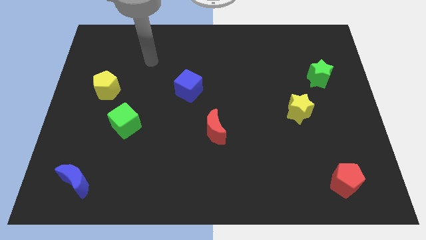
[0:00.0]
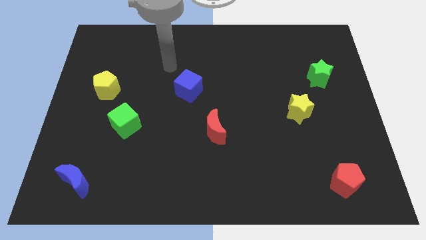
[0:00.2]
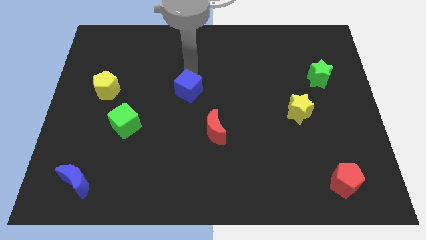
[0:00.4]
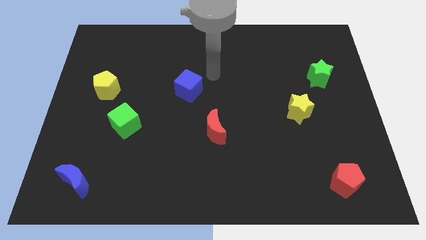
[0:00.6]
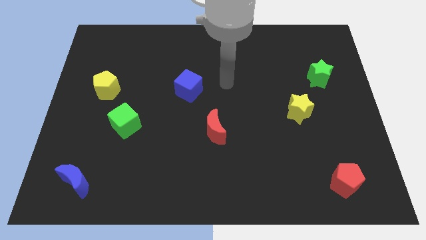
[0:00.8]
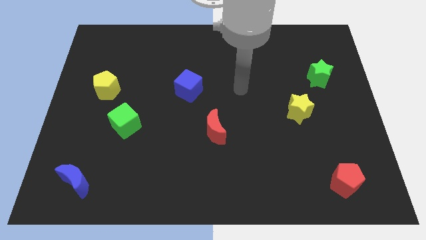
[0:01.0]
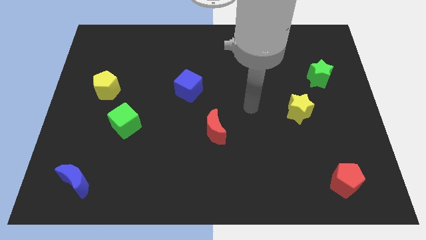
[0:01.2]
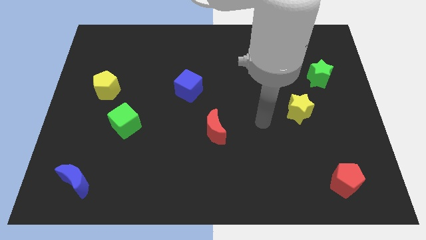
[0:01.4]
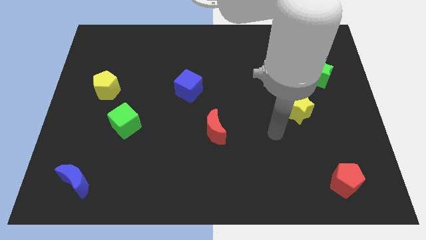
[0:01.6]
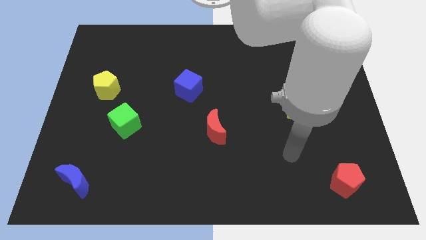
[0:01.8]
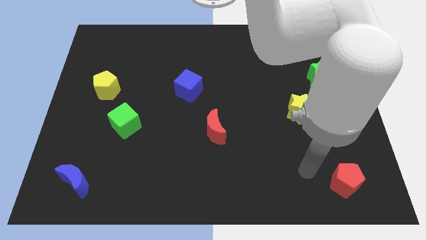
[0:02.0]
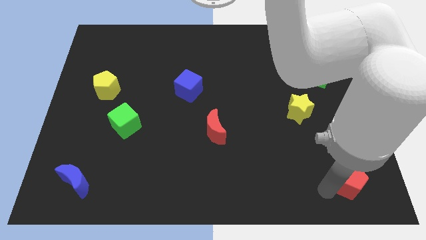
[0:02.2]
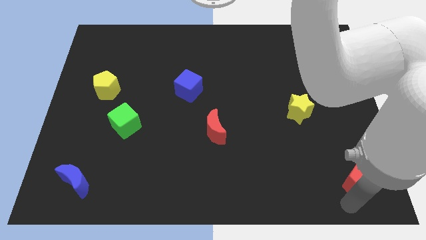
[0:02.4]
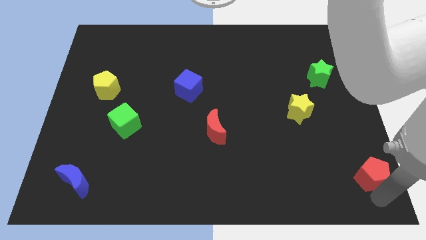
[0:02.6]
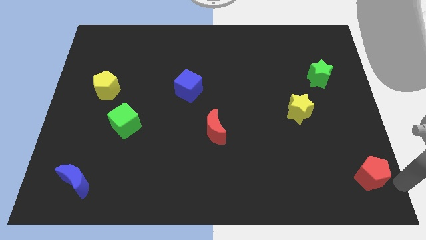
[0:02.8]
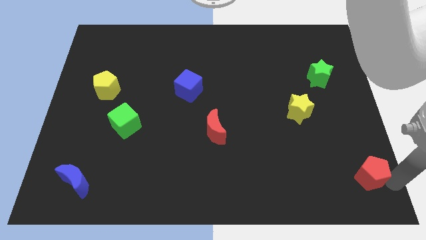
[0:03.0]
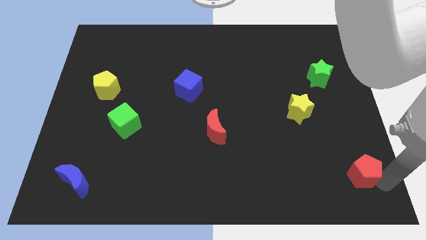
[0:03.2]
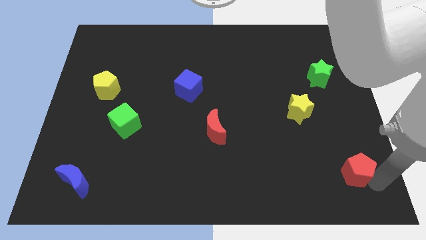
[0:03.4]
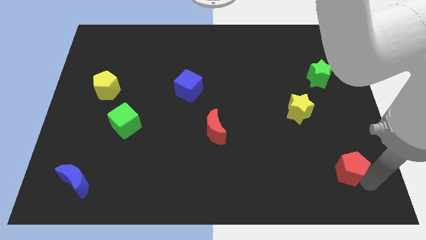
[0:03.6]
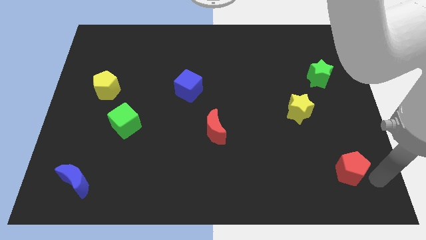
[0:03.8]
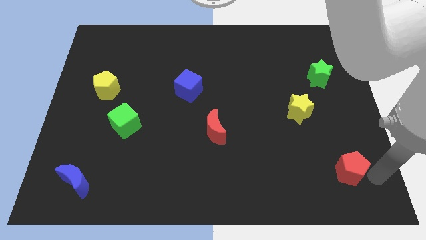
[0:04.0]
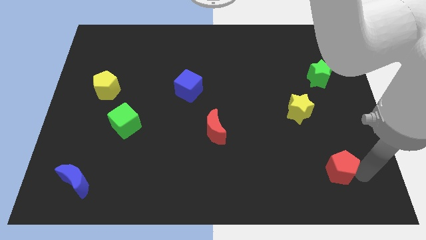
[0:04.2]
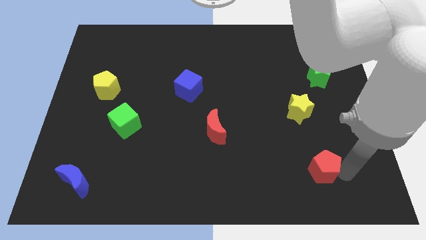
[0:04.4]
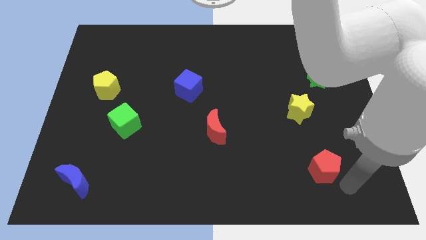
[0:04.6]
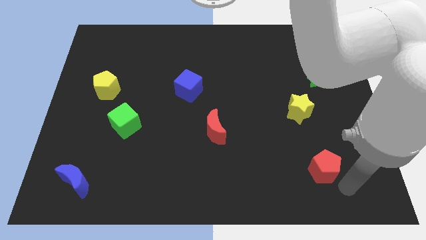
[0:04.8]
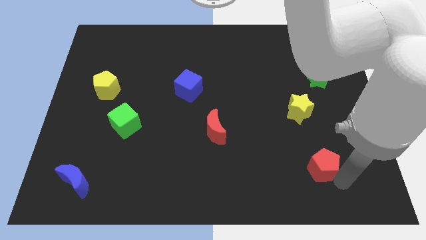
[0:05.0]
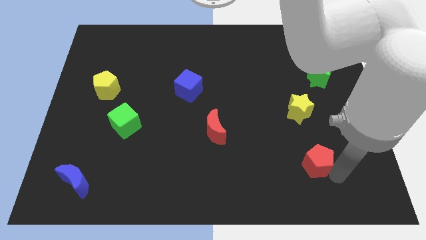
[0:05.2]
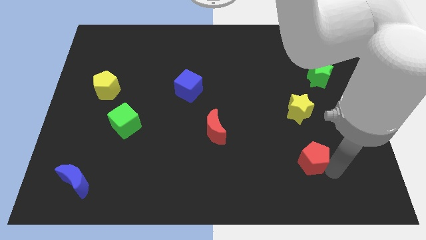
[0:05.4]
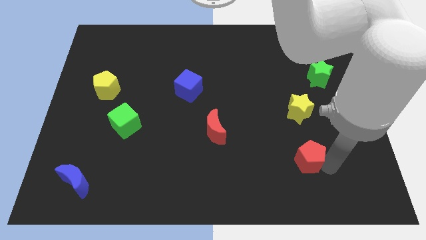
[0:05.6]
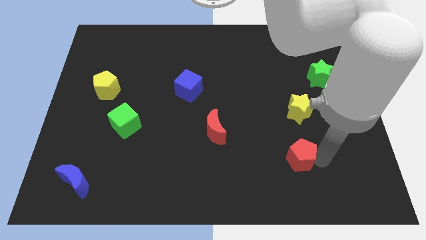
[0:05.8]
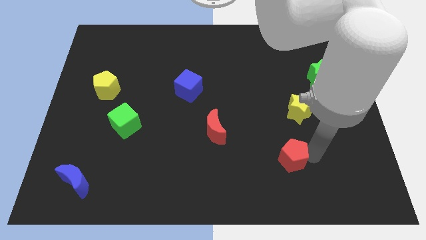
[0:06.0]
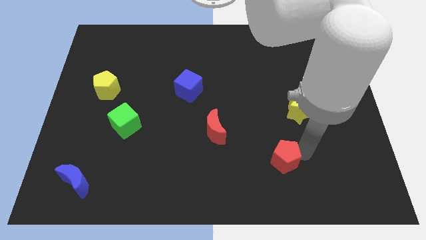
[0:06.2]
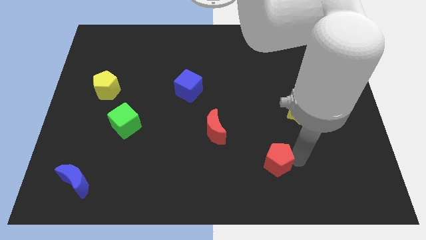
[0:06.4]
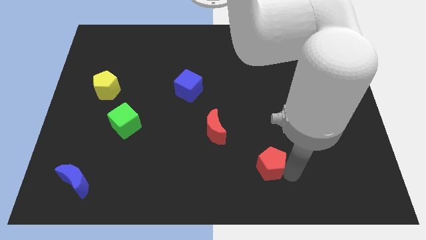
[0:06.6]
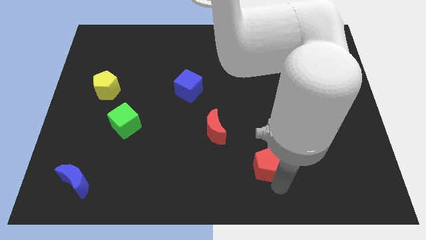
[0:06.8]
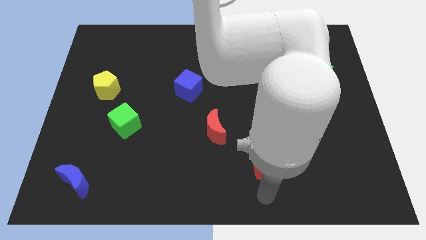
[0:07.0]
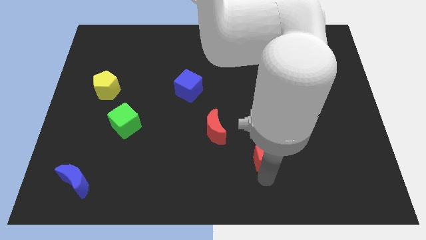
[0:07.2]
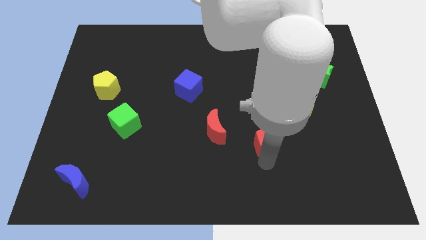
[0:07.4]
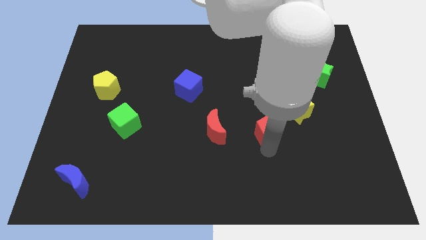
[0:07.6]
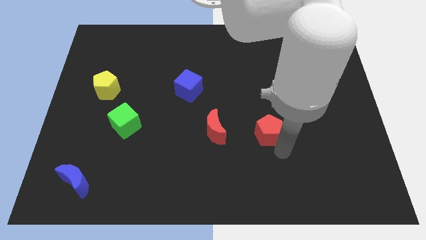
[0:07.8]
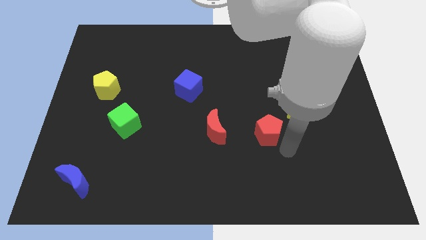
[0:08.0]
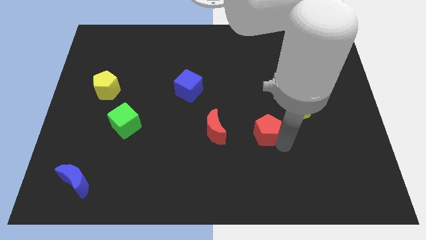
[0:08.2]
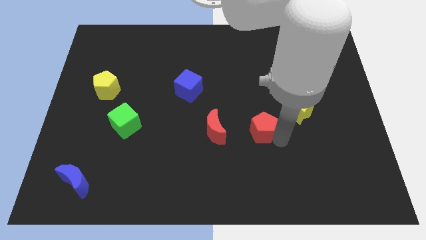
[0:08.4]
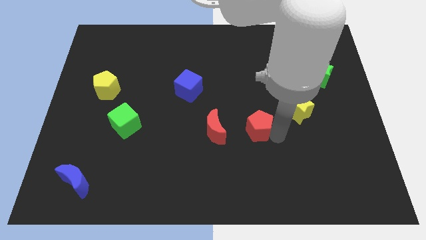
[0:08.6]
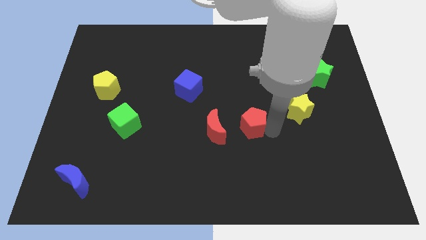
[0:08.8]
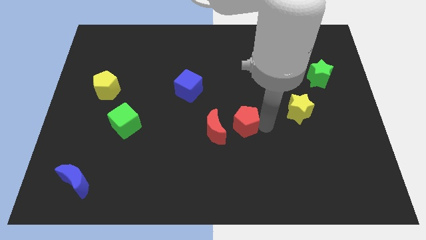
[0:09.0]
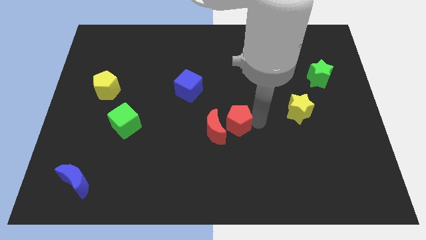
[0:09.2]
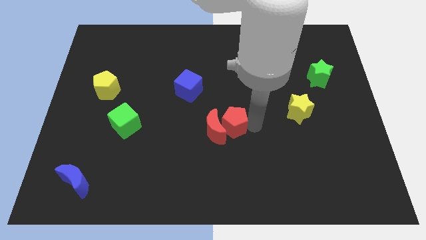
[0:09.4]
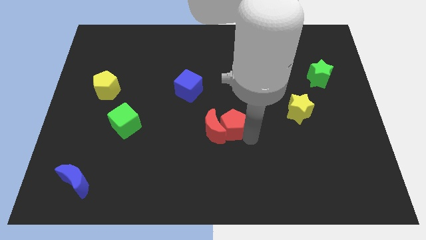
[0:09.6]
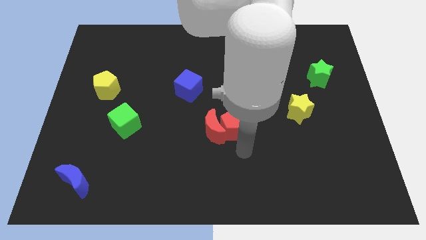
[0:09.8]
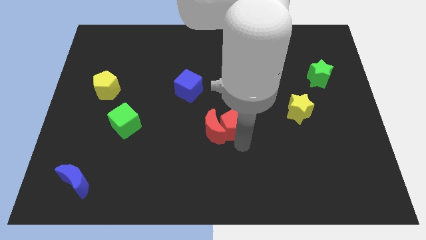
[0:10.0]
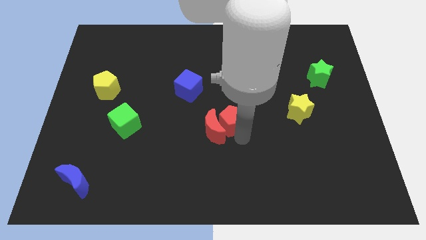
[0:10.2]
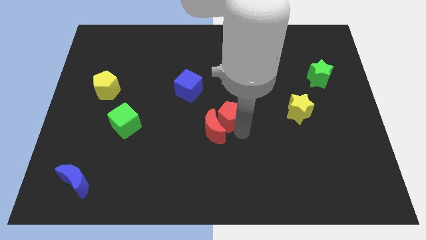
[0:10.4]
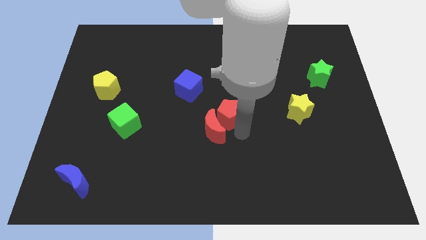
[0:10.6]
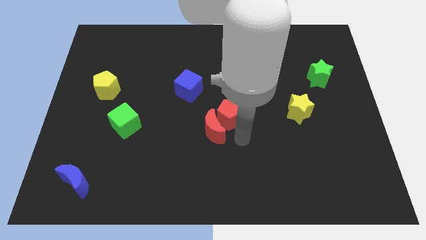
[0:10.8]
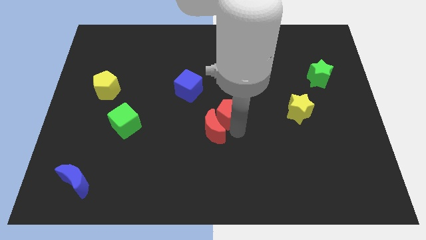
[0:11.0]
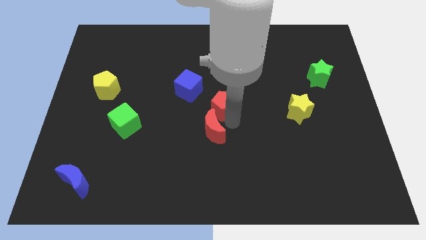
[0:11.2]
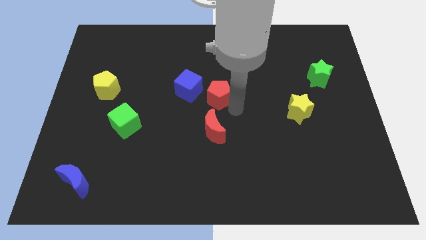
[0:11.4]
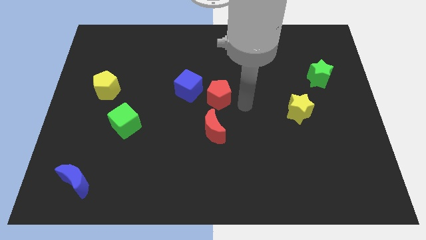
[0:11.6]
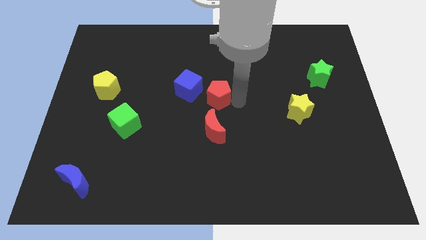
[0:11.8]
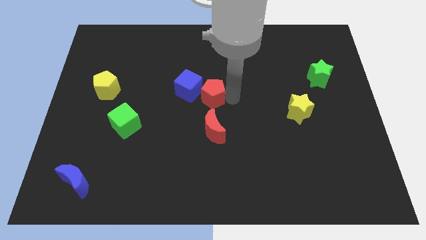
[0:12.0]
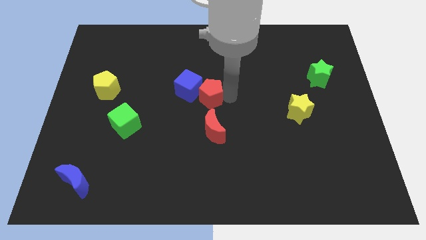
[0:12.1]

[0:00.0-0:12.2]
move the red pentagon next to the blue cube

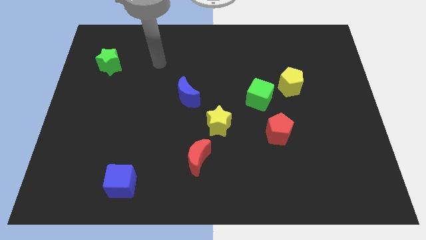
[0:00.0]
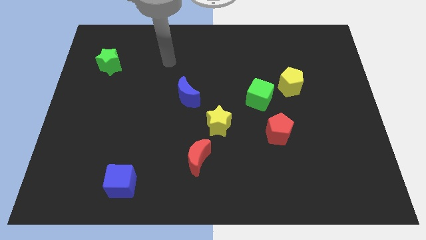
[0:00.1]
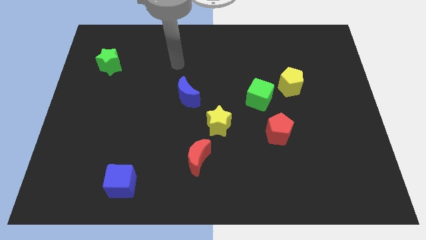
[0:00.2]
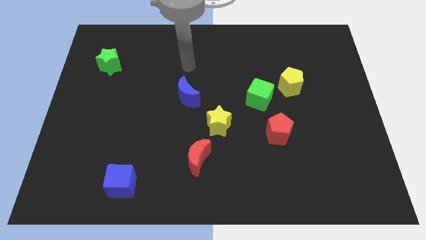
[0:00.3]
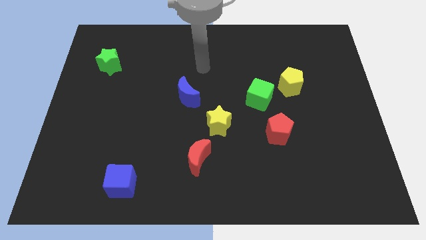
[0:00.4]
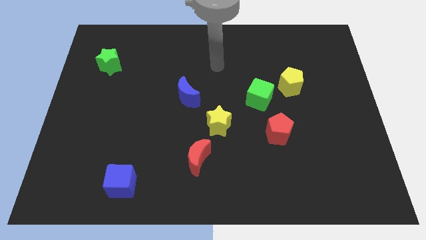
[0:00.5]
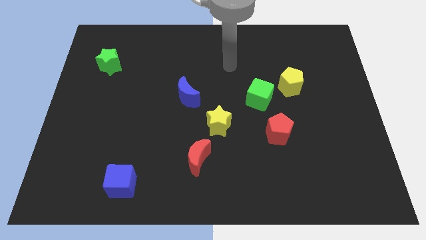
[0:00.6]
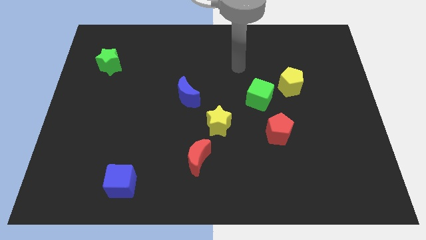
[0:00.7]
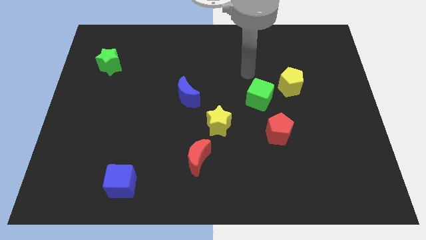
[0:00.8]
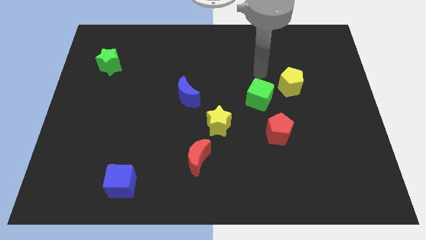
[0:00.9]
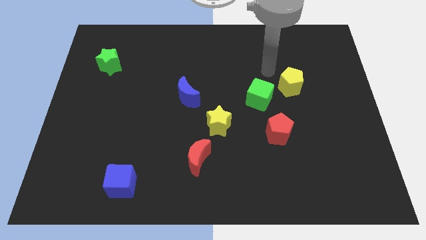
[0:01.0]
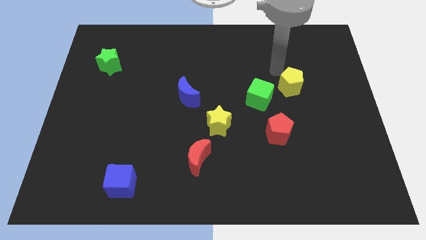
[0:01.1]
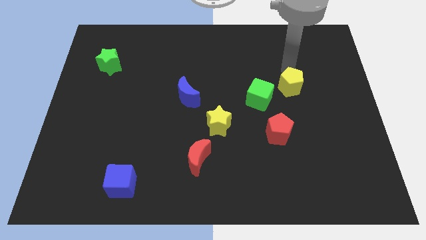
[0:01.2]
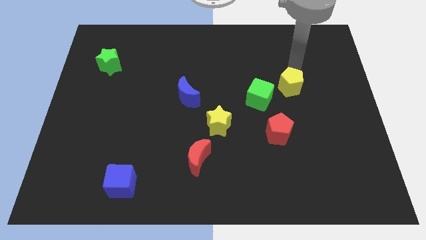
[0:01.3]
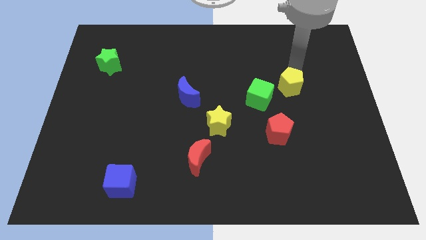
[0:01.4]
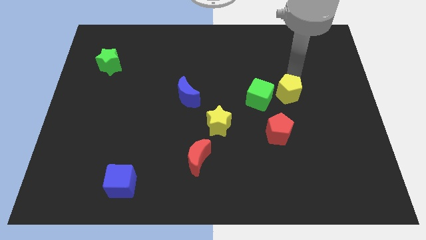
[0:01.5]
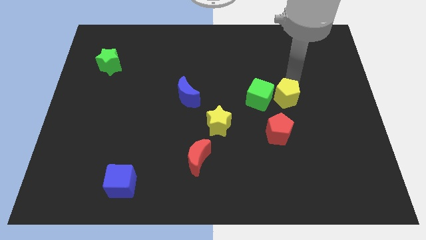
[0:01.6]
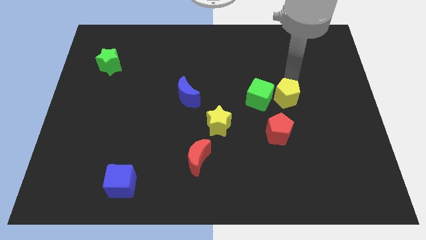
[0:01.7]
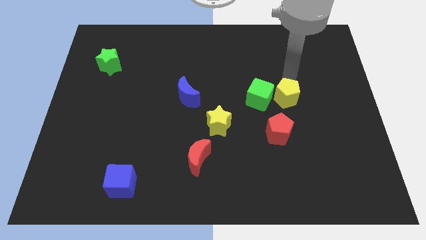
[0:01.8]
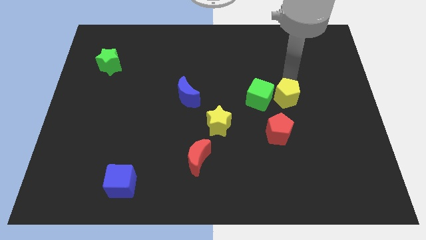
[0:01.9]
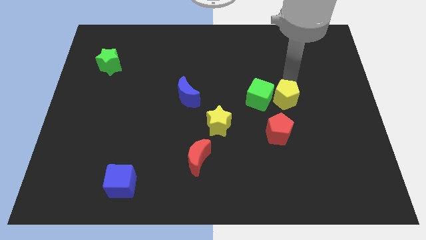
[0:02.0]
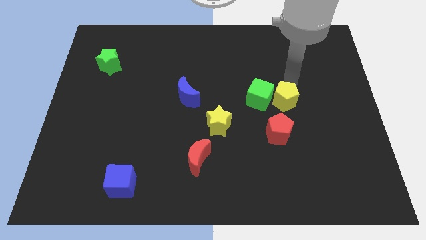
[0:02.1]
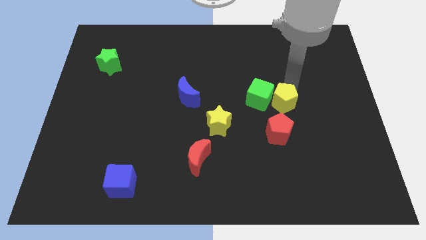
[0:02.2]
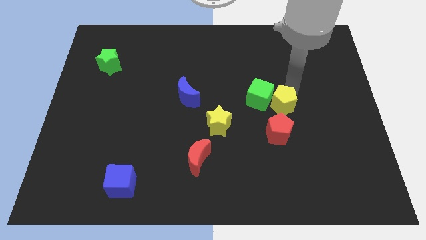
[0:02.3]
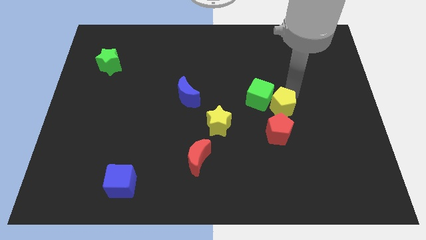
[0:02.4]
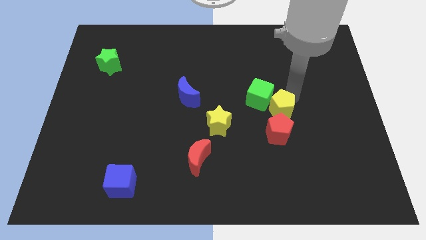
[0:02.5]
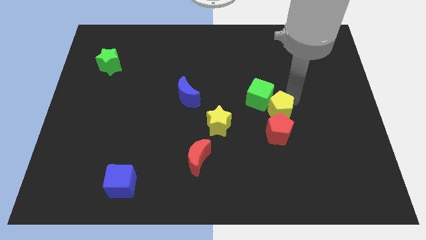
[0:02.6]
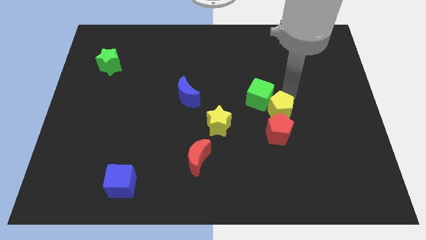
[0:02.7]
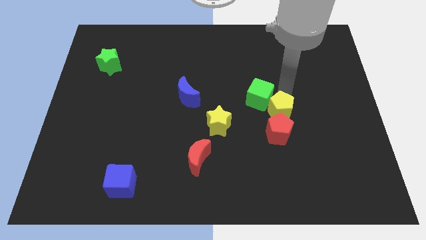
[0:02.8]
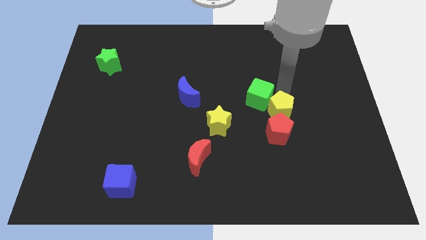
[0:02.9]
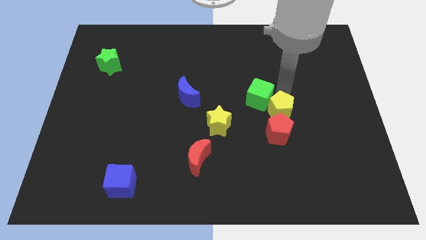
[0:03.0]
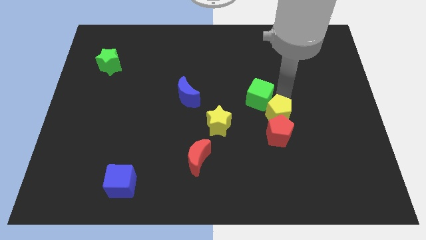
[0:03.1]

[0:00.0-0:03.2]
slide the yellow pentagon next to the red pentagon
